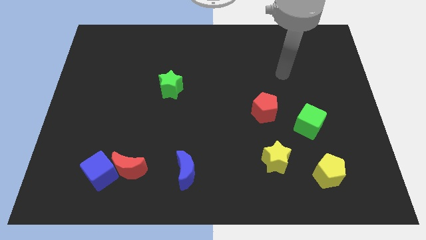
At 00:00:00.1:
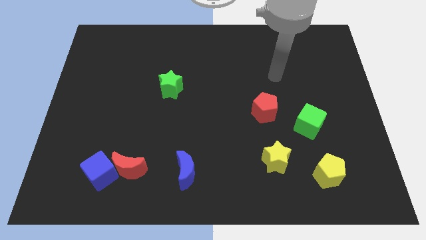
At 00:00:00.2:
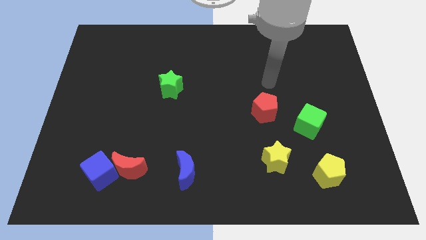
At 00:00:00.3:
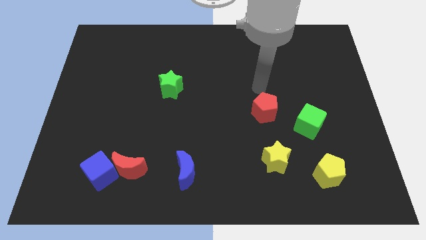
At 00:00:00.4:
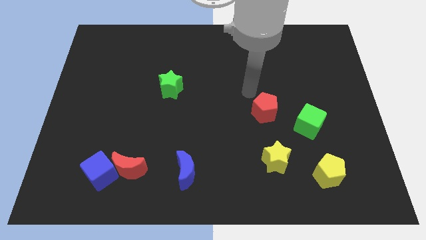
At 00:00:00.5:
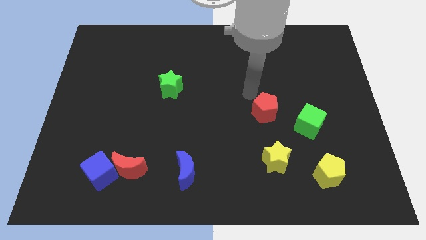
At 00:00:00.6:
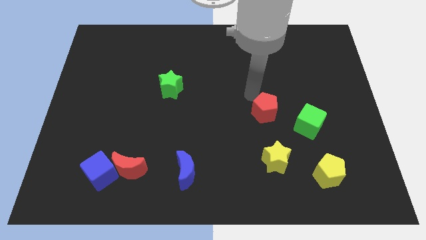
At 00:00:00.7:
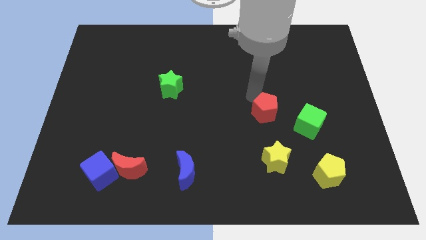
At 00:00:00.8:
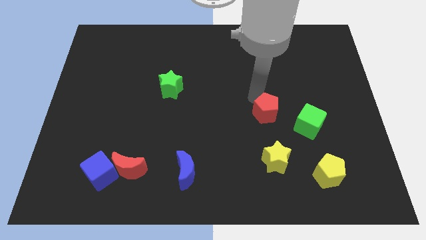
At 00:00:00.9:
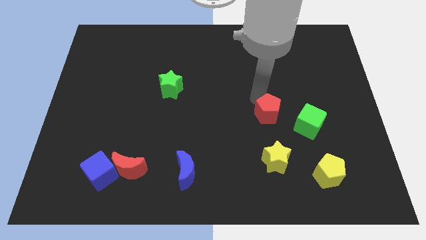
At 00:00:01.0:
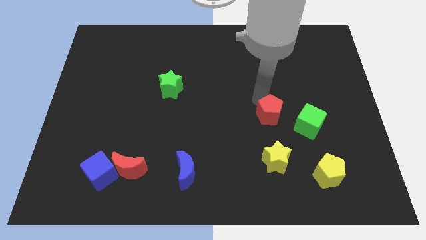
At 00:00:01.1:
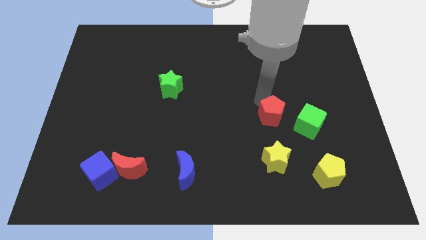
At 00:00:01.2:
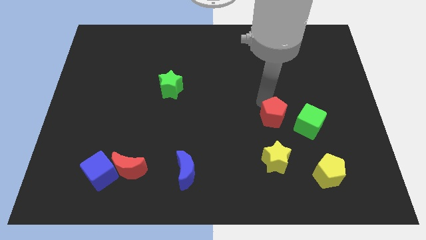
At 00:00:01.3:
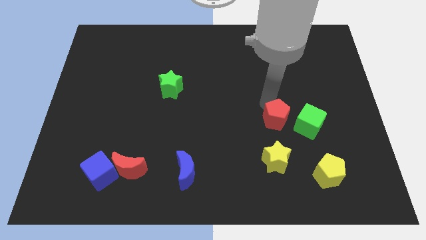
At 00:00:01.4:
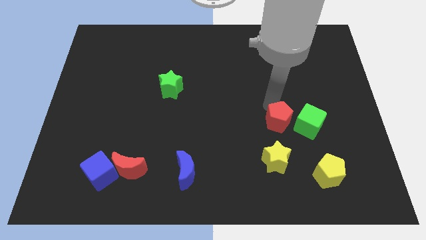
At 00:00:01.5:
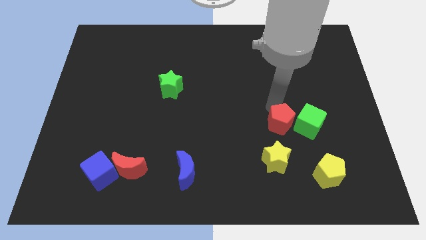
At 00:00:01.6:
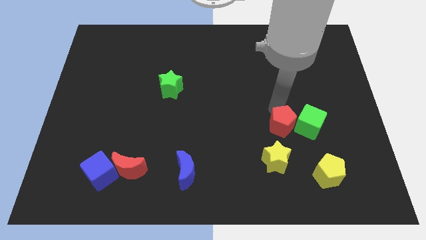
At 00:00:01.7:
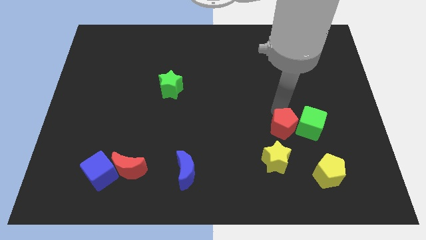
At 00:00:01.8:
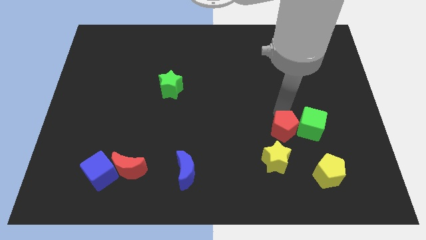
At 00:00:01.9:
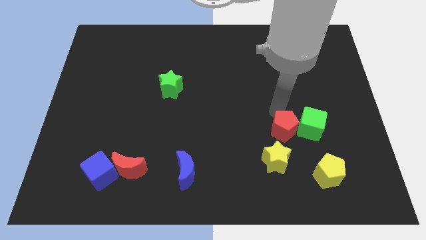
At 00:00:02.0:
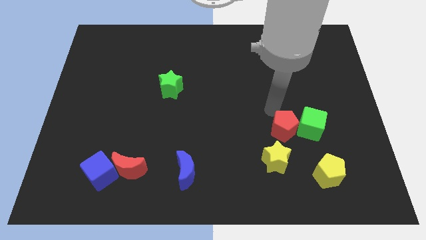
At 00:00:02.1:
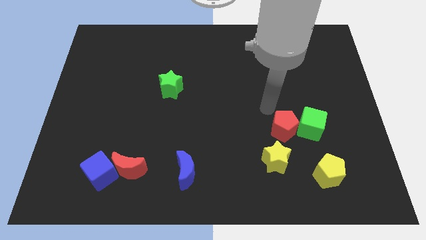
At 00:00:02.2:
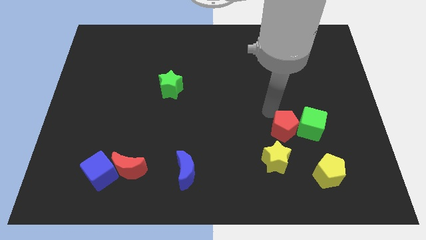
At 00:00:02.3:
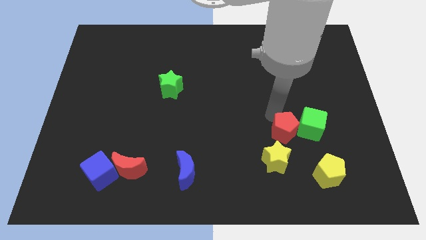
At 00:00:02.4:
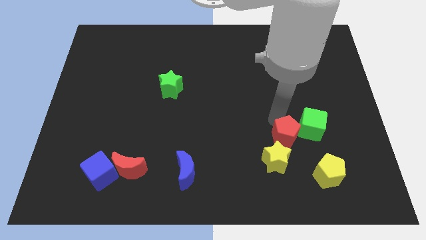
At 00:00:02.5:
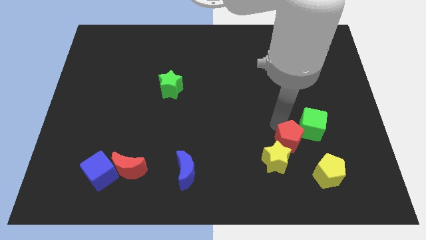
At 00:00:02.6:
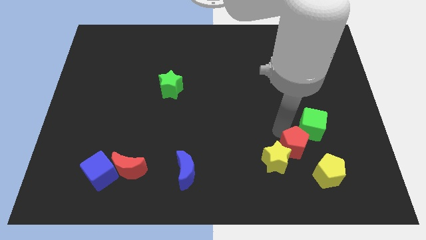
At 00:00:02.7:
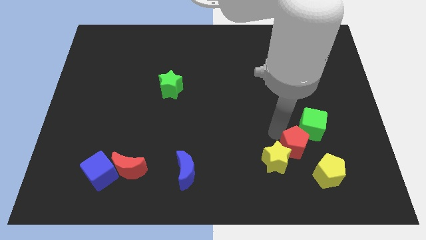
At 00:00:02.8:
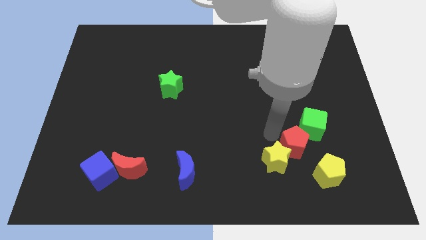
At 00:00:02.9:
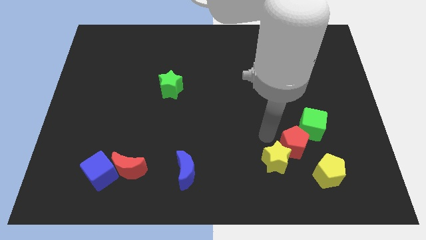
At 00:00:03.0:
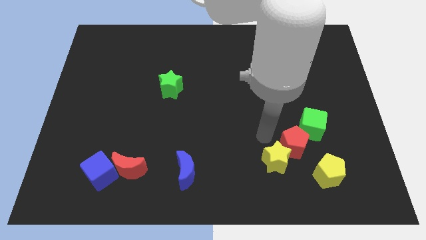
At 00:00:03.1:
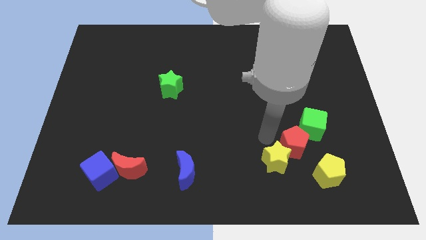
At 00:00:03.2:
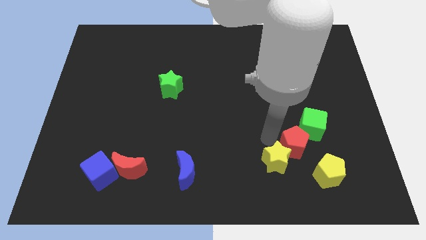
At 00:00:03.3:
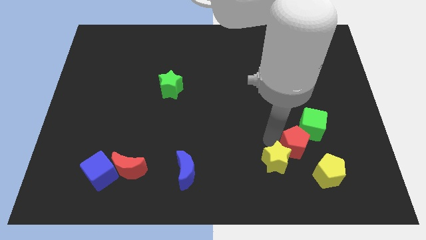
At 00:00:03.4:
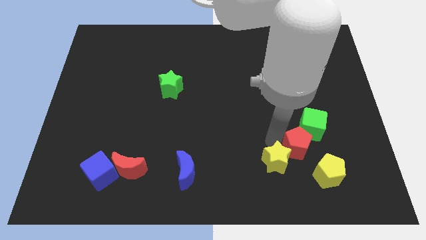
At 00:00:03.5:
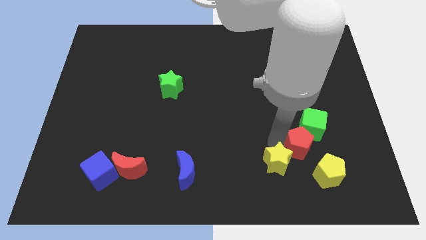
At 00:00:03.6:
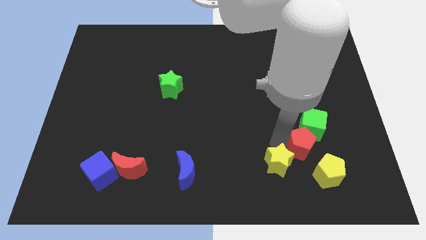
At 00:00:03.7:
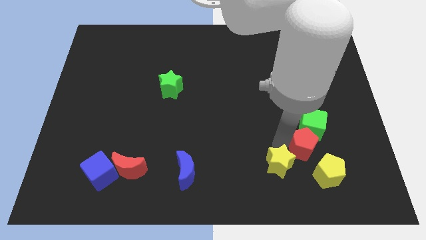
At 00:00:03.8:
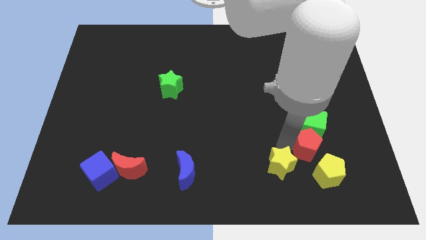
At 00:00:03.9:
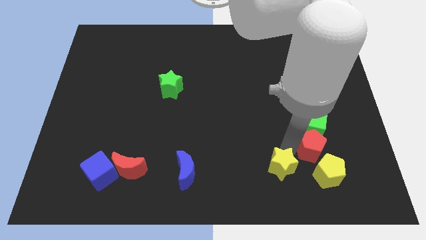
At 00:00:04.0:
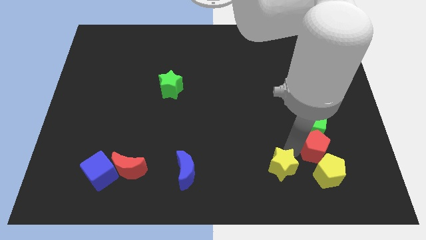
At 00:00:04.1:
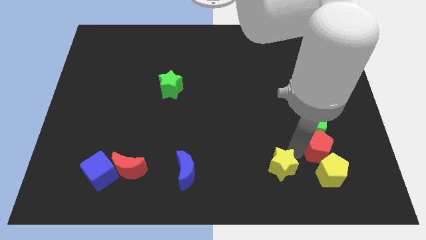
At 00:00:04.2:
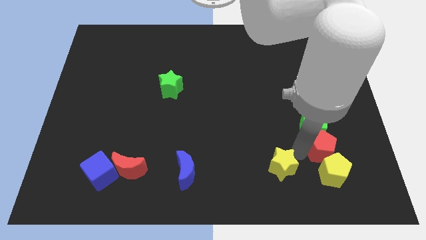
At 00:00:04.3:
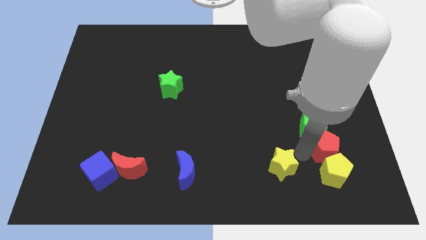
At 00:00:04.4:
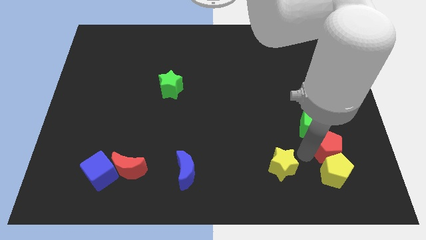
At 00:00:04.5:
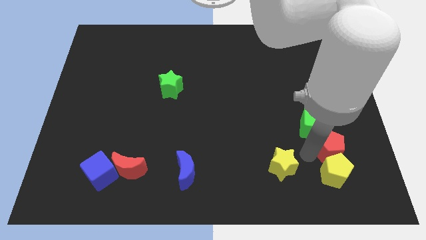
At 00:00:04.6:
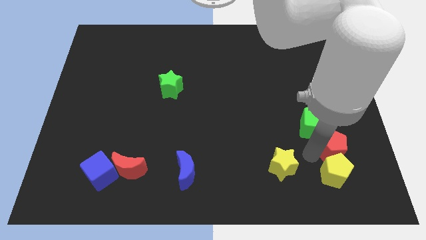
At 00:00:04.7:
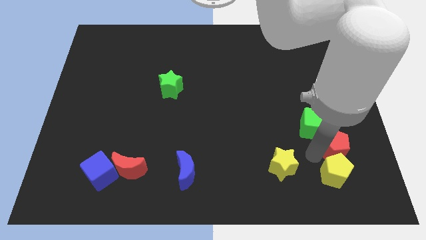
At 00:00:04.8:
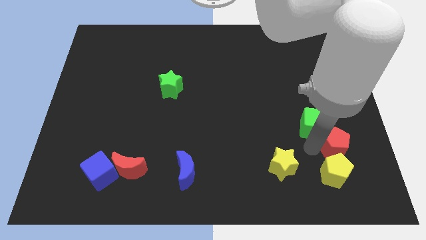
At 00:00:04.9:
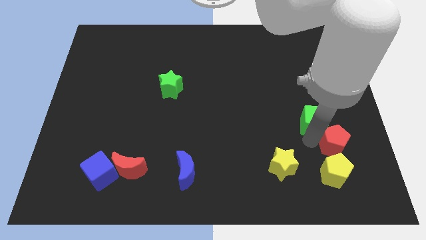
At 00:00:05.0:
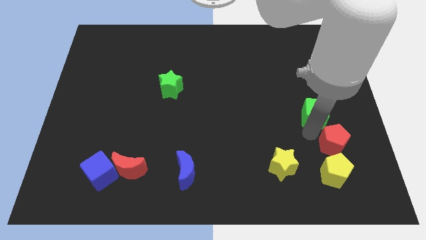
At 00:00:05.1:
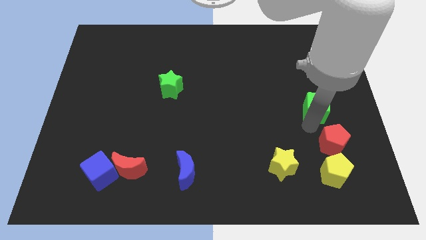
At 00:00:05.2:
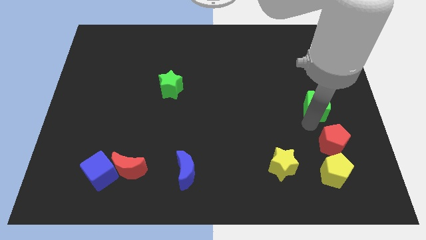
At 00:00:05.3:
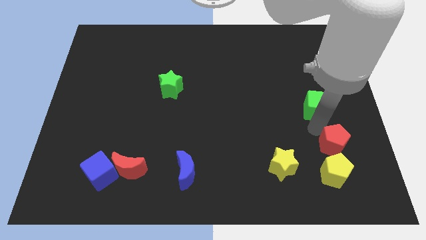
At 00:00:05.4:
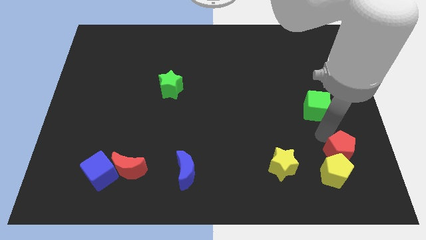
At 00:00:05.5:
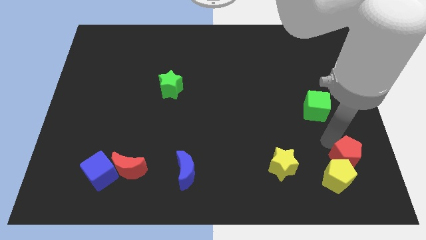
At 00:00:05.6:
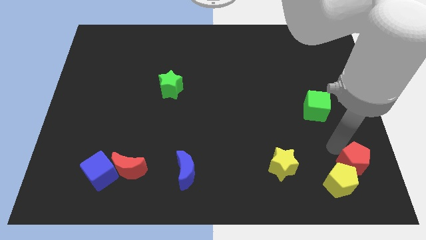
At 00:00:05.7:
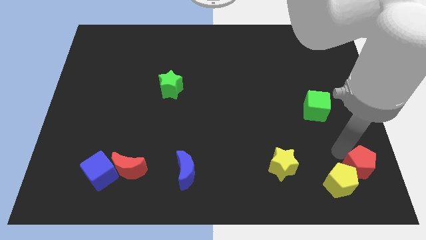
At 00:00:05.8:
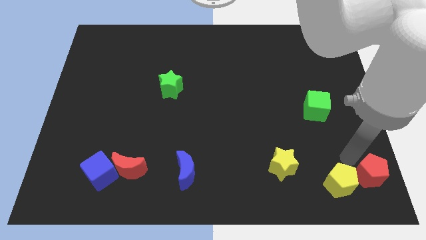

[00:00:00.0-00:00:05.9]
put the red pentagon to the bottom right of the board

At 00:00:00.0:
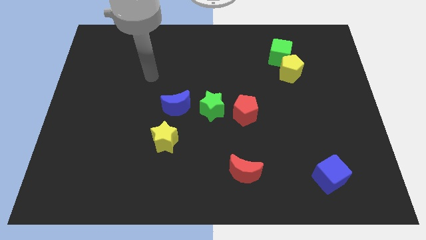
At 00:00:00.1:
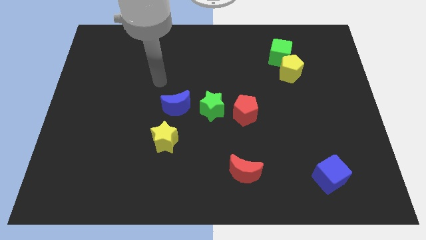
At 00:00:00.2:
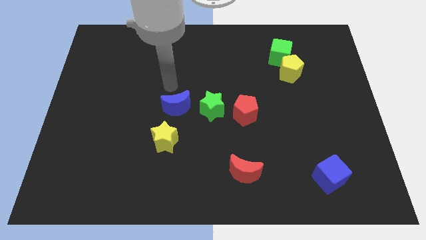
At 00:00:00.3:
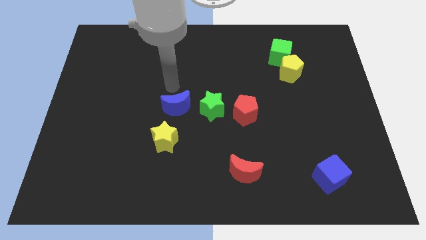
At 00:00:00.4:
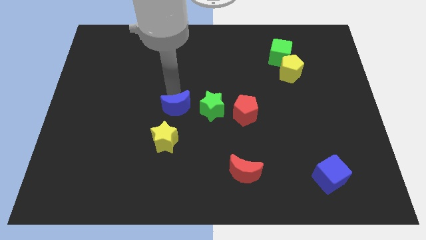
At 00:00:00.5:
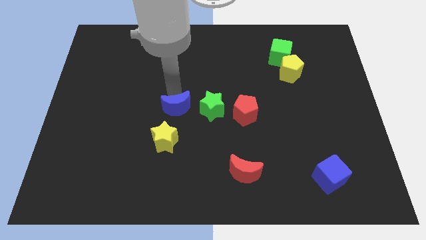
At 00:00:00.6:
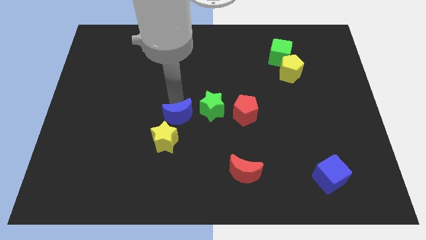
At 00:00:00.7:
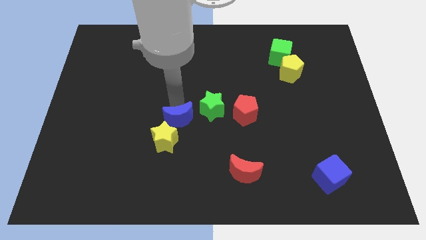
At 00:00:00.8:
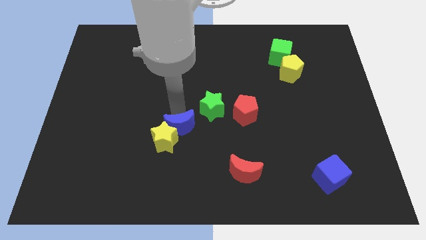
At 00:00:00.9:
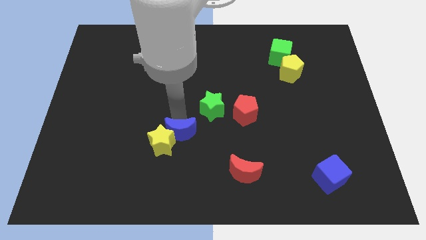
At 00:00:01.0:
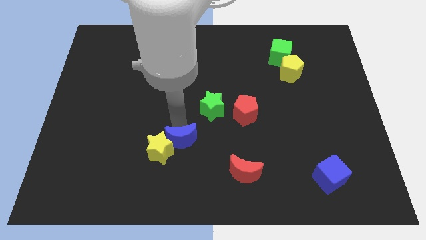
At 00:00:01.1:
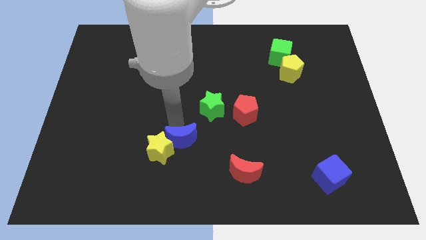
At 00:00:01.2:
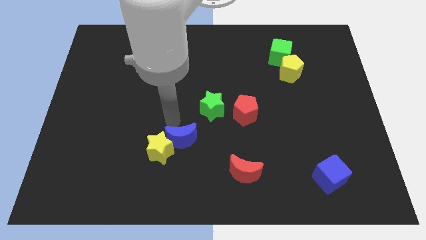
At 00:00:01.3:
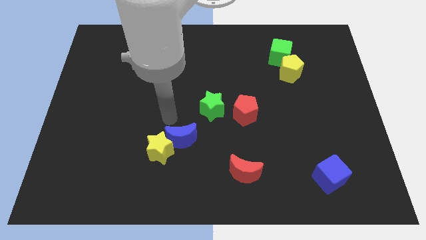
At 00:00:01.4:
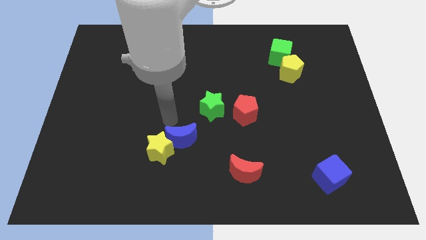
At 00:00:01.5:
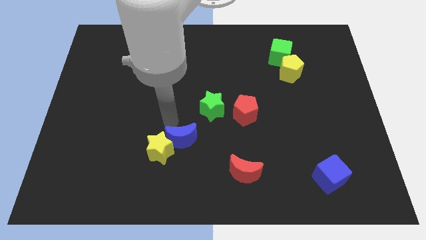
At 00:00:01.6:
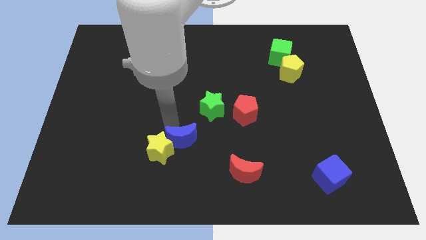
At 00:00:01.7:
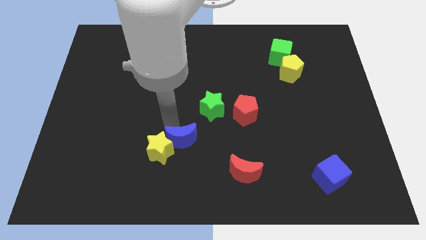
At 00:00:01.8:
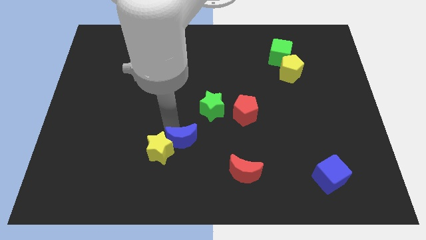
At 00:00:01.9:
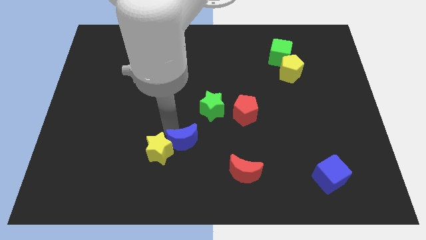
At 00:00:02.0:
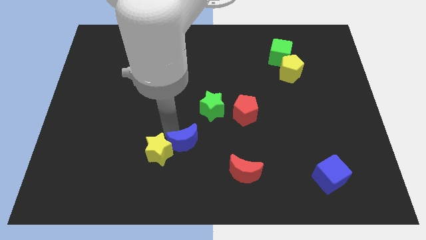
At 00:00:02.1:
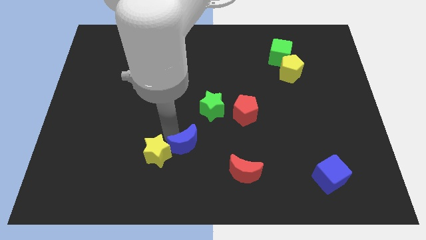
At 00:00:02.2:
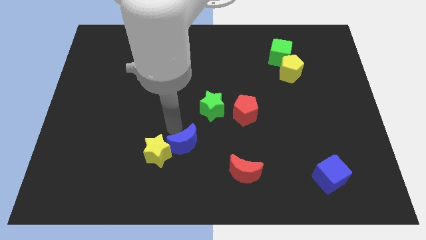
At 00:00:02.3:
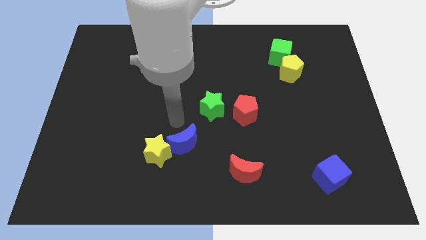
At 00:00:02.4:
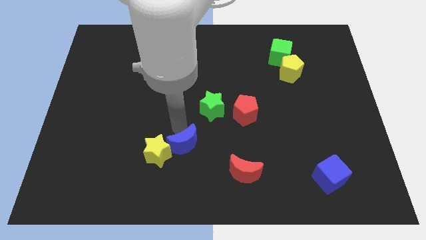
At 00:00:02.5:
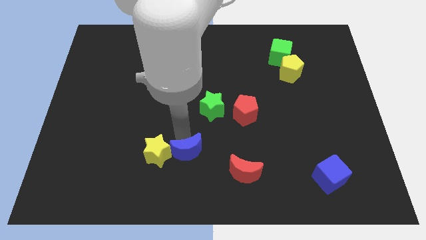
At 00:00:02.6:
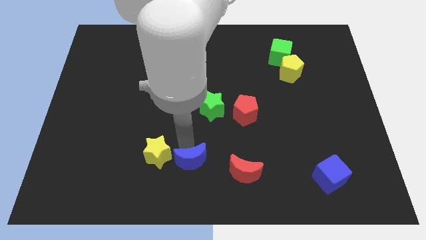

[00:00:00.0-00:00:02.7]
slide the blue moon to the bottom
